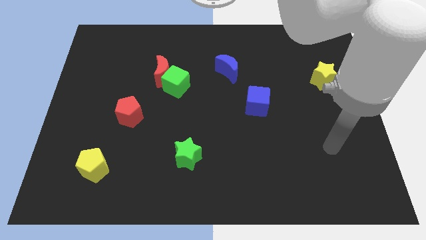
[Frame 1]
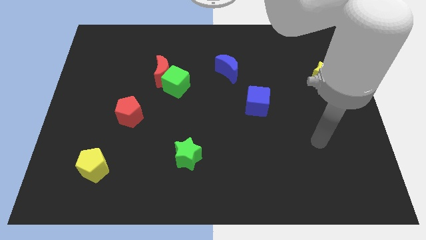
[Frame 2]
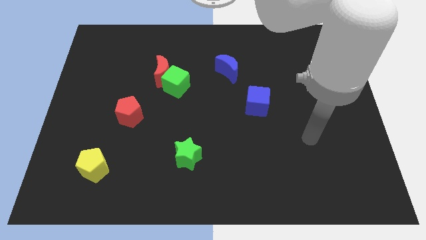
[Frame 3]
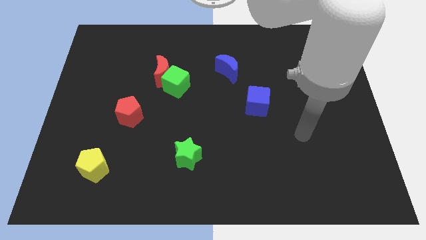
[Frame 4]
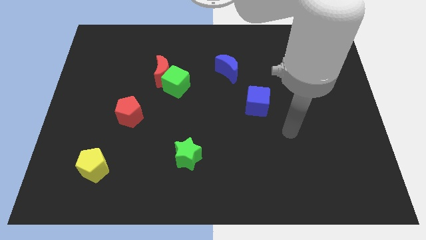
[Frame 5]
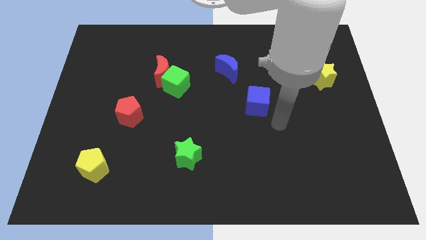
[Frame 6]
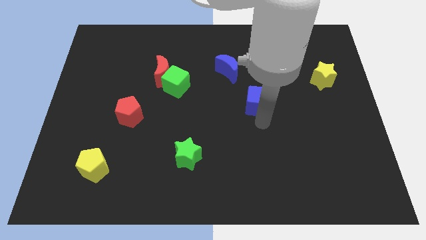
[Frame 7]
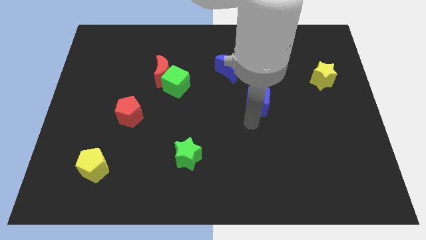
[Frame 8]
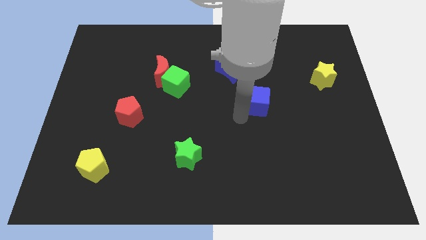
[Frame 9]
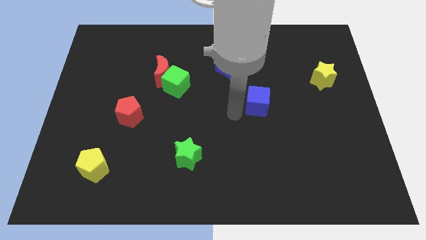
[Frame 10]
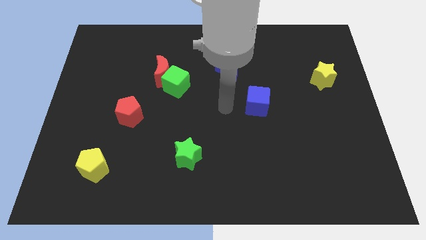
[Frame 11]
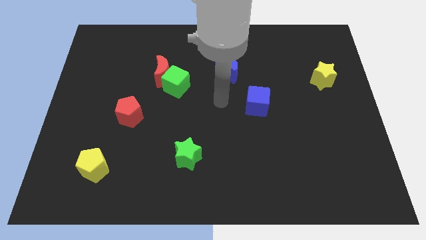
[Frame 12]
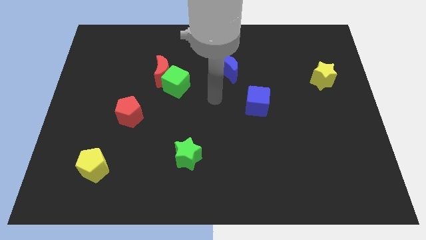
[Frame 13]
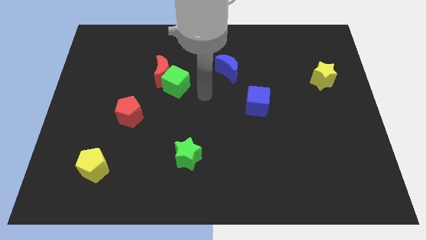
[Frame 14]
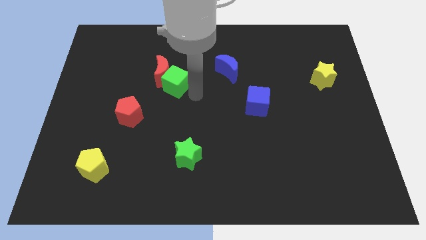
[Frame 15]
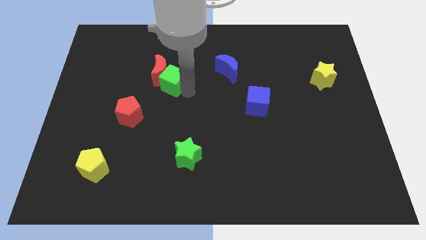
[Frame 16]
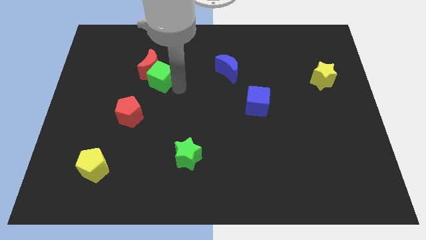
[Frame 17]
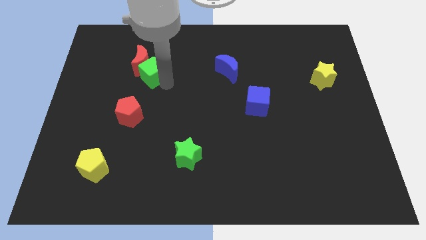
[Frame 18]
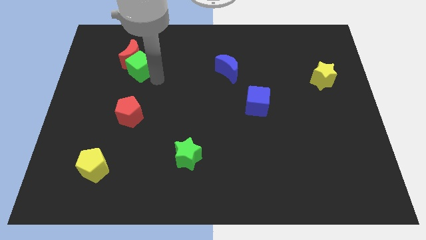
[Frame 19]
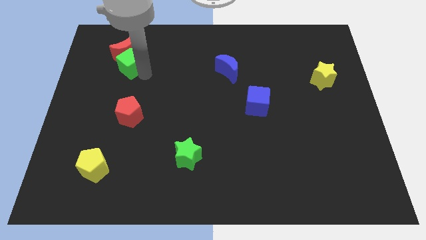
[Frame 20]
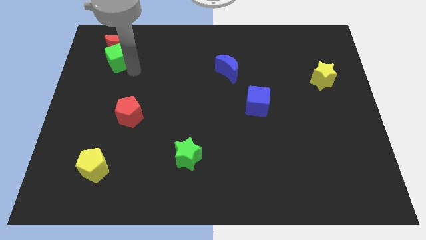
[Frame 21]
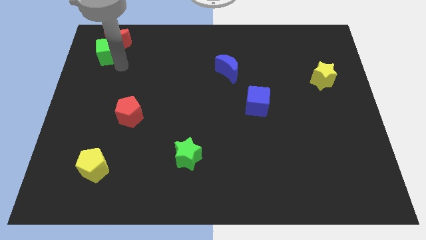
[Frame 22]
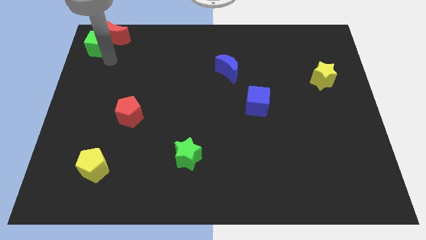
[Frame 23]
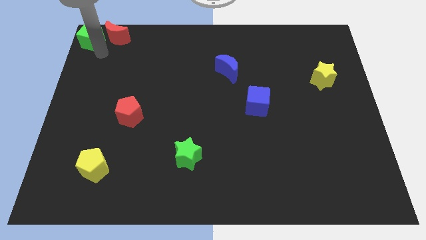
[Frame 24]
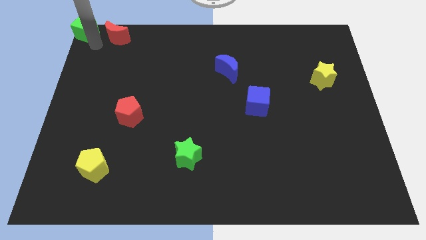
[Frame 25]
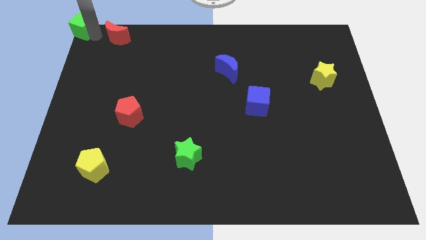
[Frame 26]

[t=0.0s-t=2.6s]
pull the red moon apart from the green cube

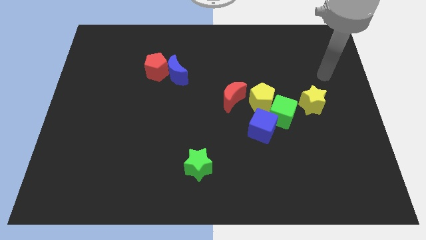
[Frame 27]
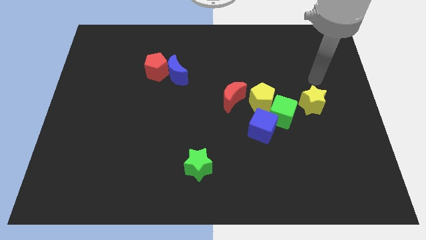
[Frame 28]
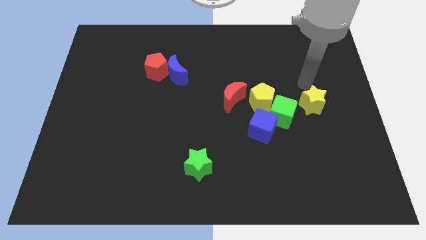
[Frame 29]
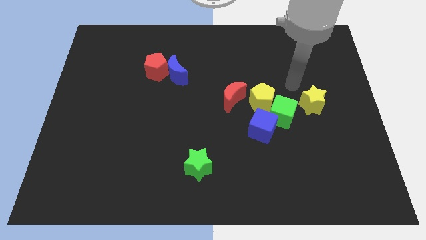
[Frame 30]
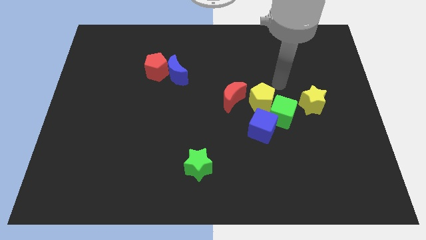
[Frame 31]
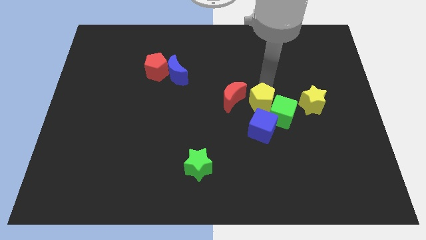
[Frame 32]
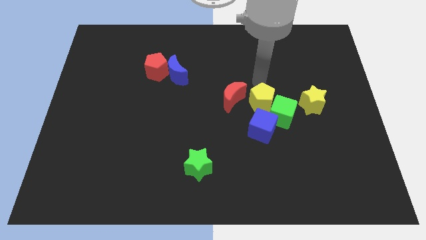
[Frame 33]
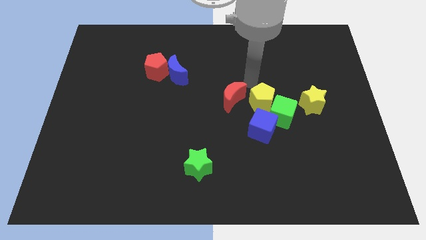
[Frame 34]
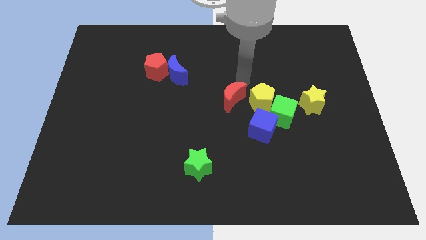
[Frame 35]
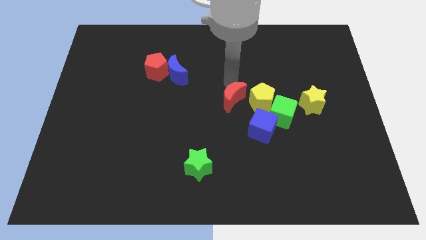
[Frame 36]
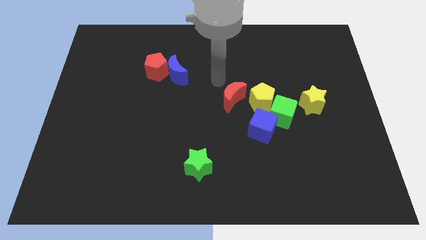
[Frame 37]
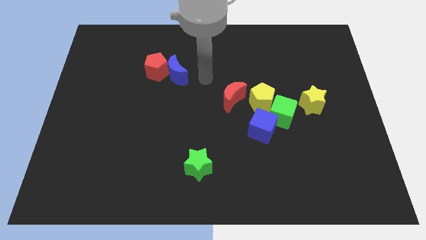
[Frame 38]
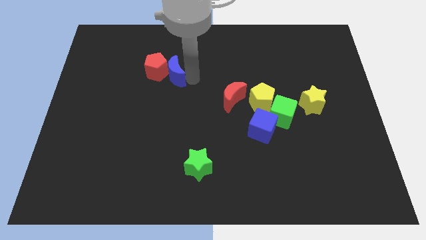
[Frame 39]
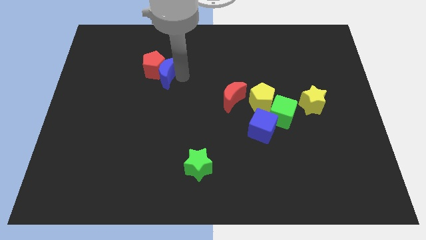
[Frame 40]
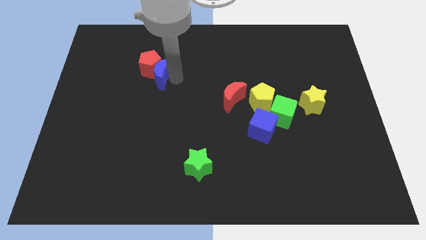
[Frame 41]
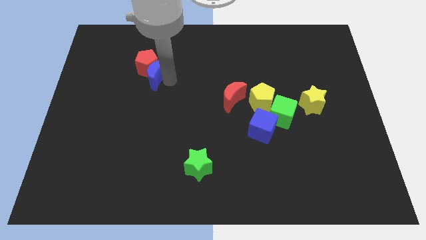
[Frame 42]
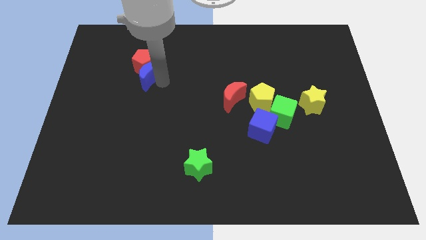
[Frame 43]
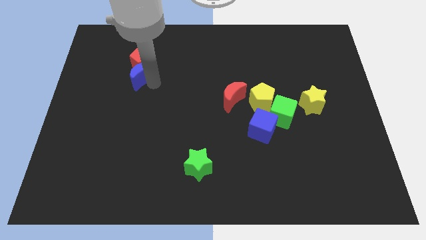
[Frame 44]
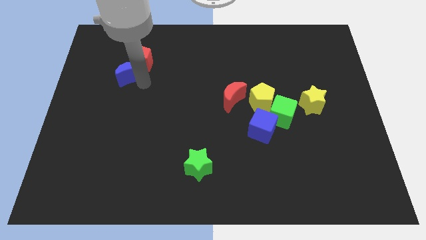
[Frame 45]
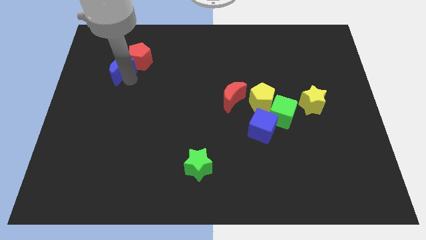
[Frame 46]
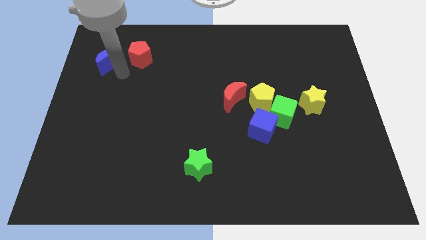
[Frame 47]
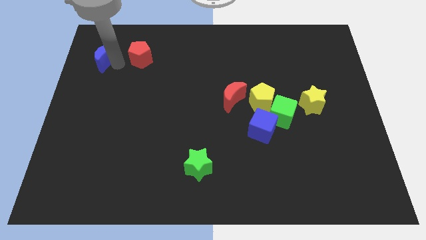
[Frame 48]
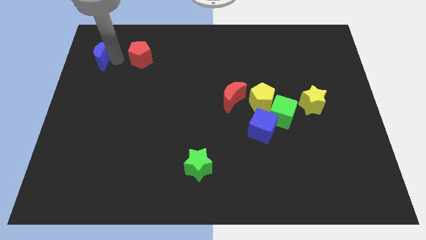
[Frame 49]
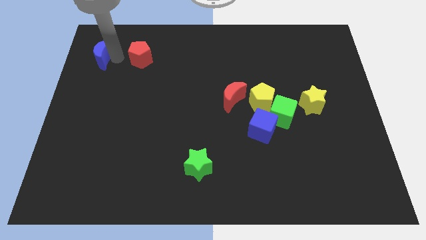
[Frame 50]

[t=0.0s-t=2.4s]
pull the red pentagon apart from the blue moon

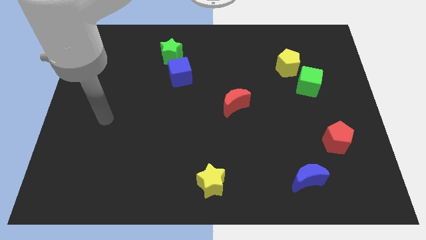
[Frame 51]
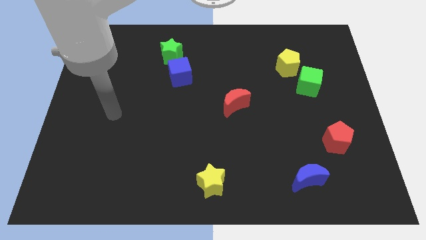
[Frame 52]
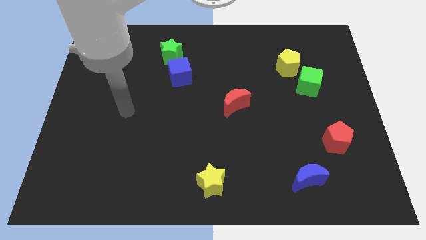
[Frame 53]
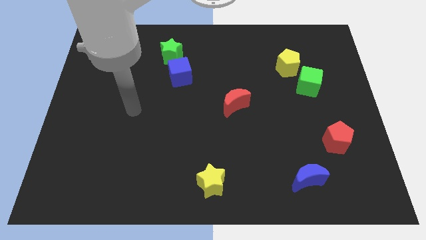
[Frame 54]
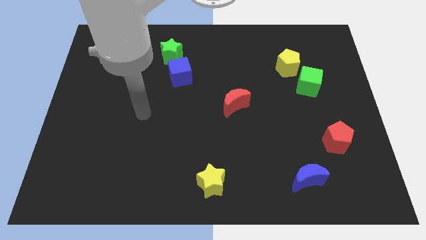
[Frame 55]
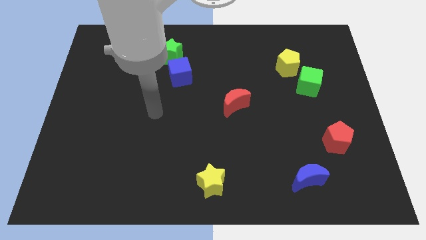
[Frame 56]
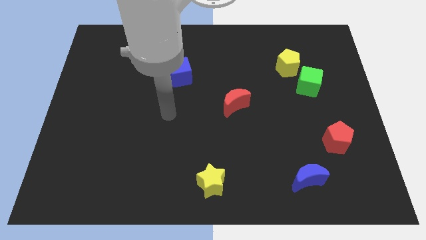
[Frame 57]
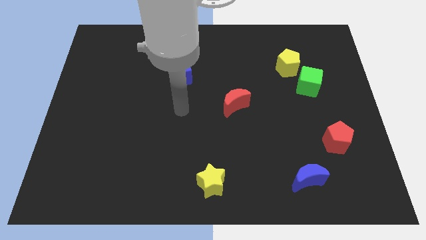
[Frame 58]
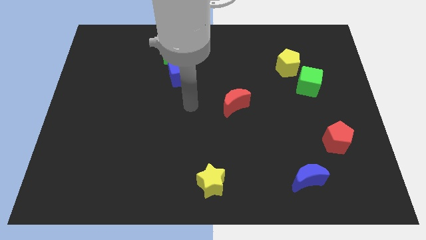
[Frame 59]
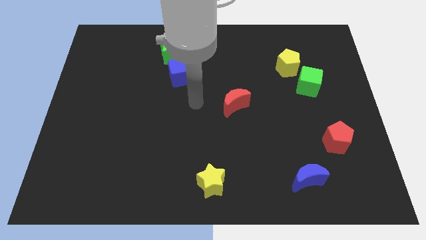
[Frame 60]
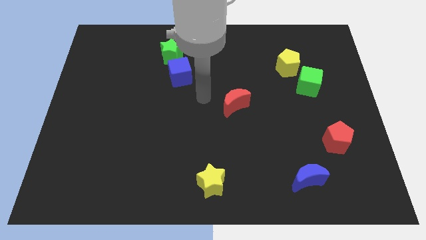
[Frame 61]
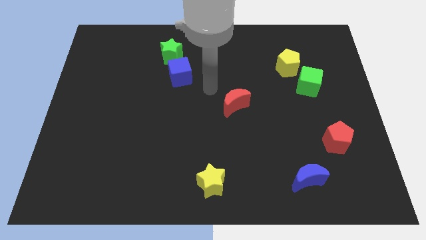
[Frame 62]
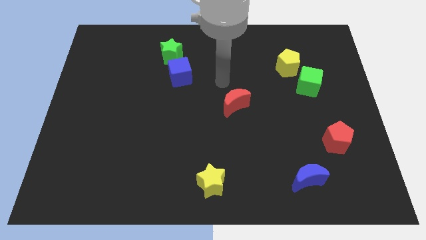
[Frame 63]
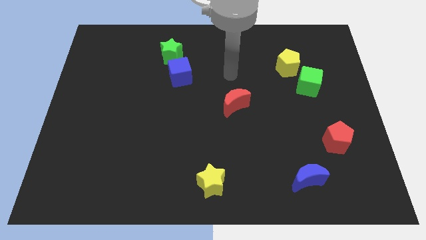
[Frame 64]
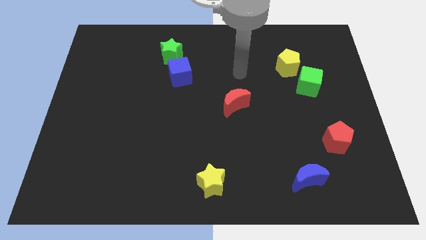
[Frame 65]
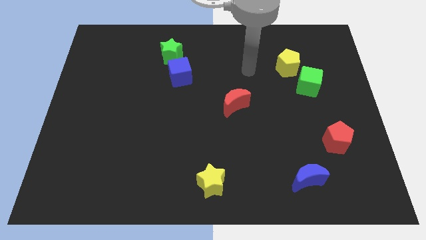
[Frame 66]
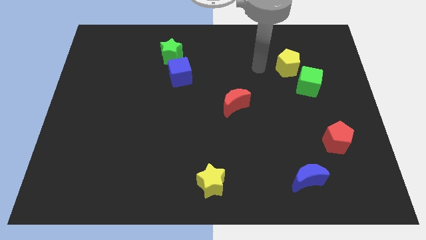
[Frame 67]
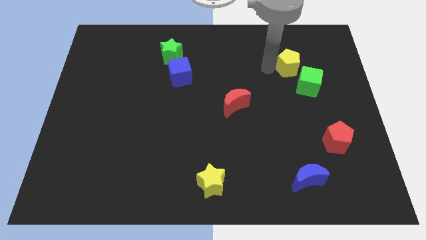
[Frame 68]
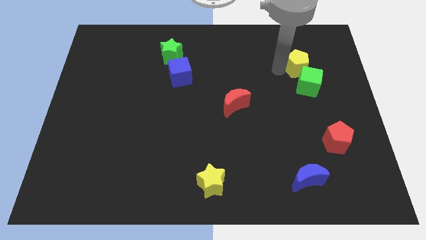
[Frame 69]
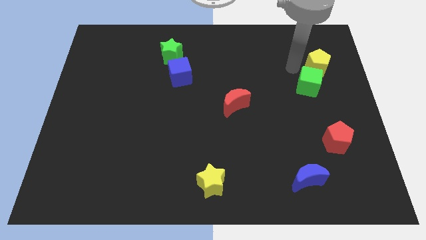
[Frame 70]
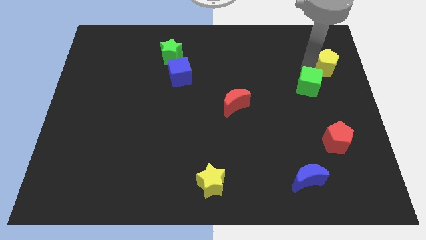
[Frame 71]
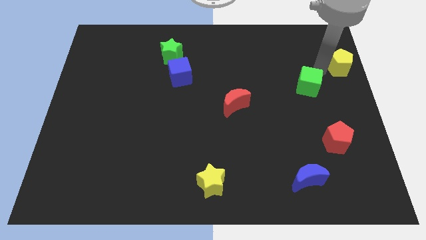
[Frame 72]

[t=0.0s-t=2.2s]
move the green cube away from the yellow pentagon

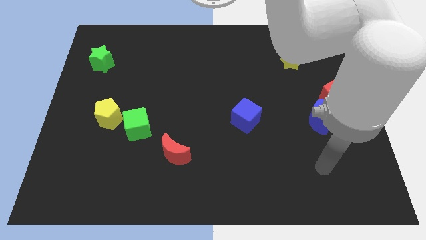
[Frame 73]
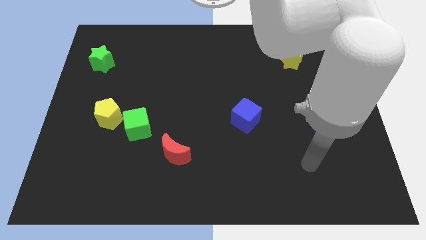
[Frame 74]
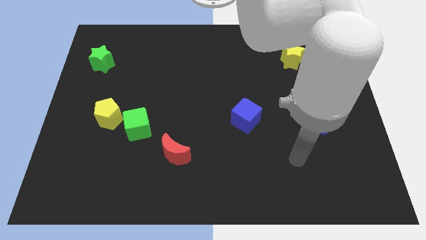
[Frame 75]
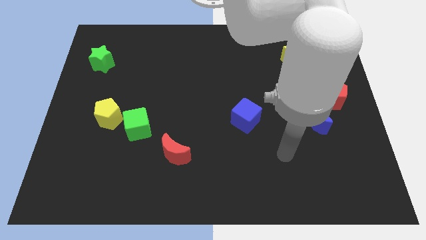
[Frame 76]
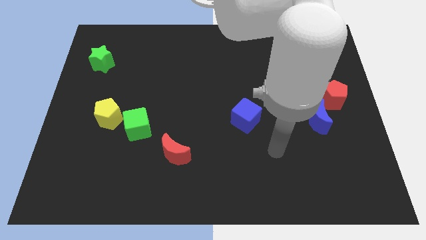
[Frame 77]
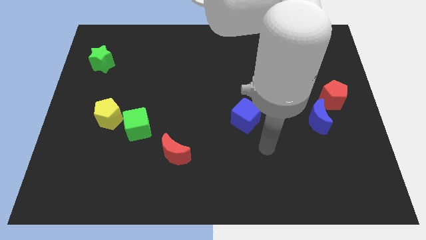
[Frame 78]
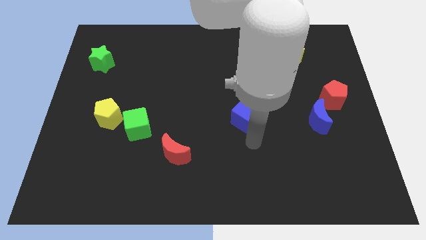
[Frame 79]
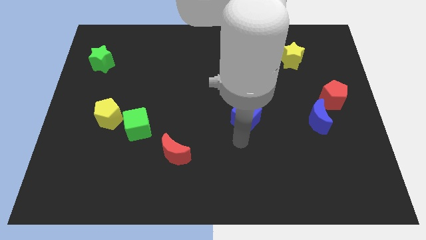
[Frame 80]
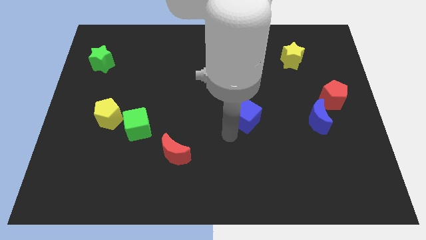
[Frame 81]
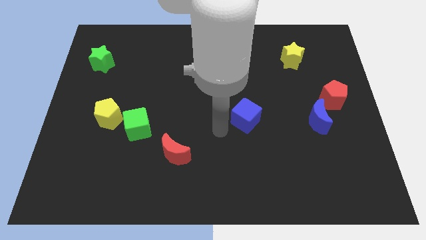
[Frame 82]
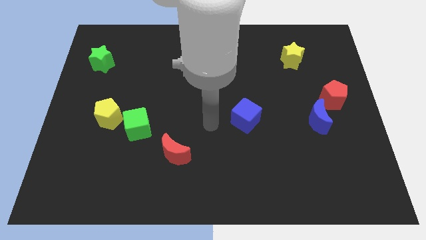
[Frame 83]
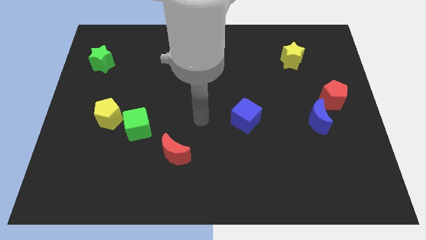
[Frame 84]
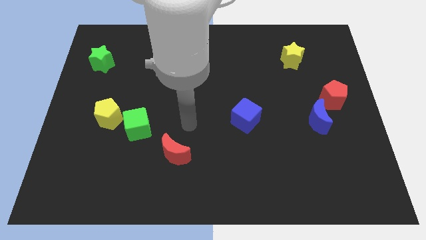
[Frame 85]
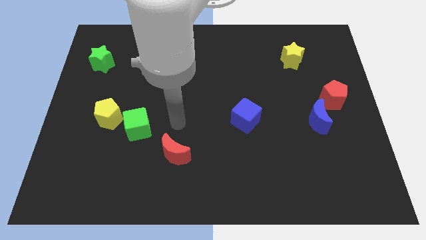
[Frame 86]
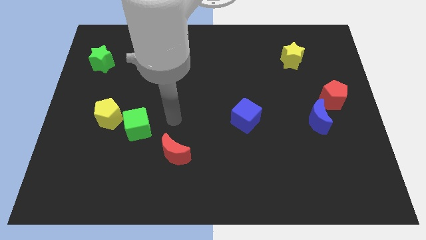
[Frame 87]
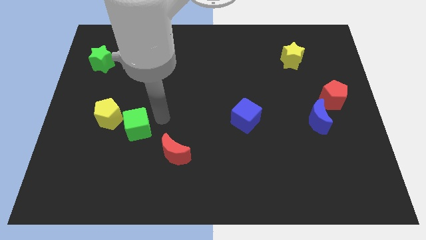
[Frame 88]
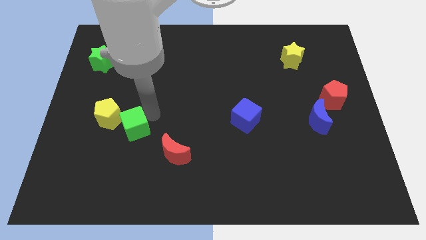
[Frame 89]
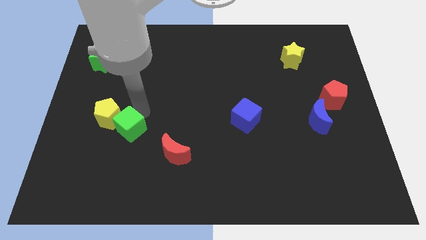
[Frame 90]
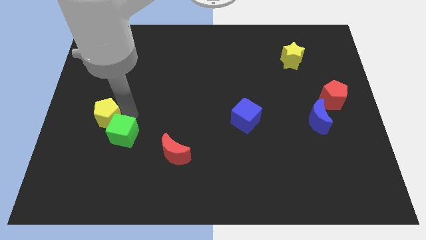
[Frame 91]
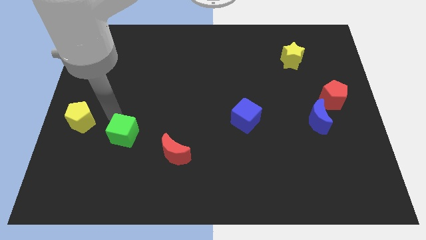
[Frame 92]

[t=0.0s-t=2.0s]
pull the green cube apart from the yellow pentagon

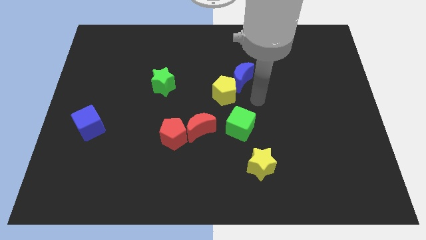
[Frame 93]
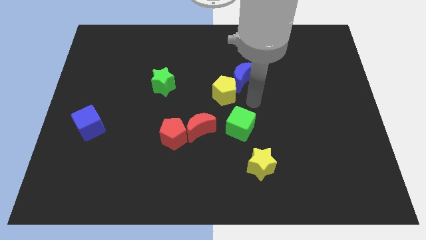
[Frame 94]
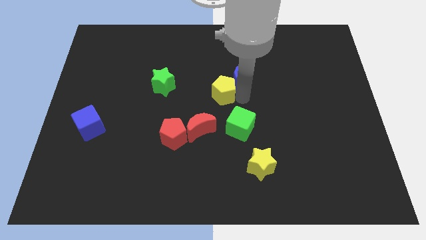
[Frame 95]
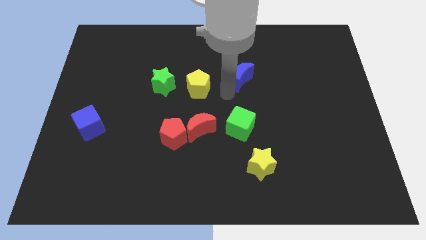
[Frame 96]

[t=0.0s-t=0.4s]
separate the blue moon from the yellow pentagon
